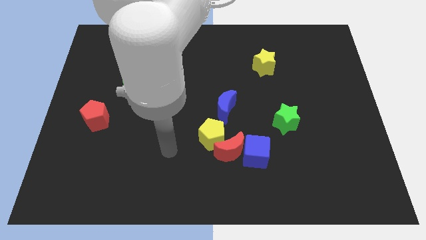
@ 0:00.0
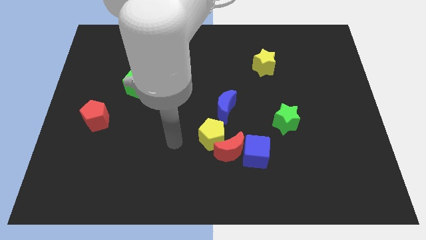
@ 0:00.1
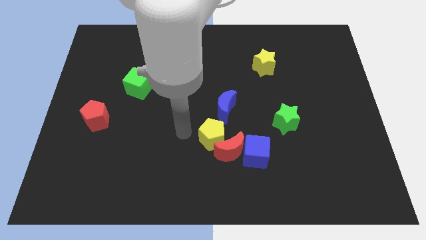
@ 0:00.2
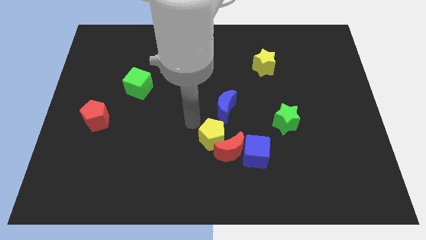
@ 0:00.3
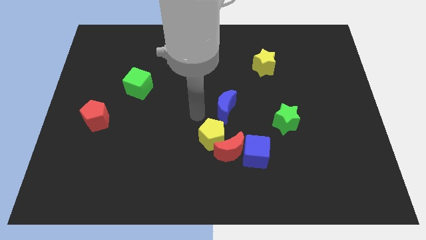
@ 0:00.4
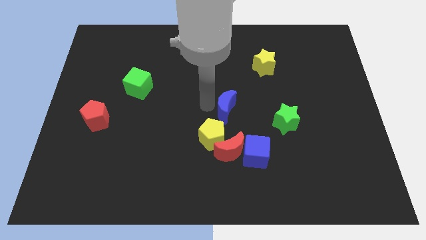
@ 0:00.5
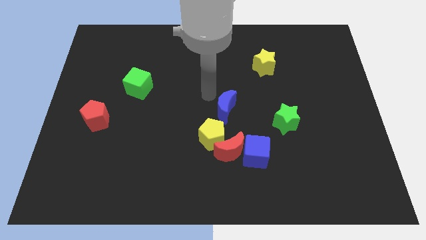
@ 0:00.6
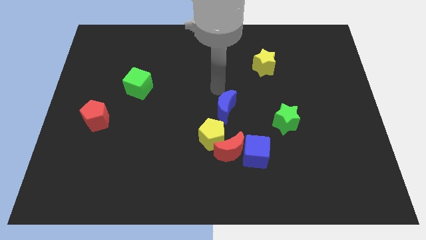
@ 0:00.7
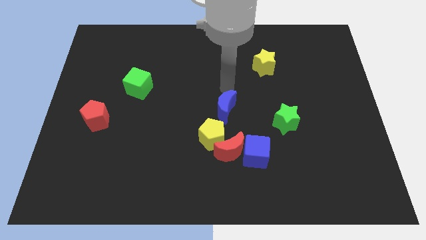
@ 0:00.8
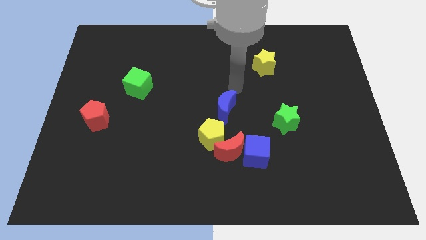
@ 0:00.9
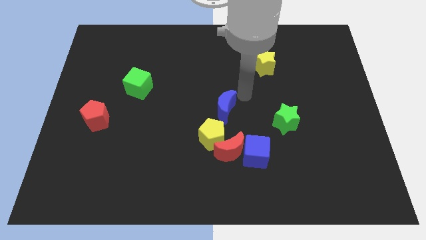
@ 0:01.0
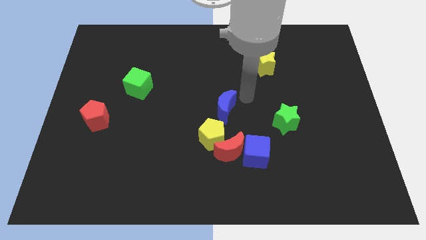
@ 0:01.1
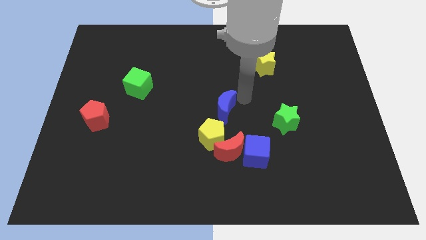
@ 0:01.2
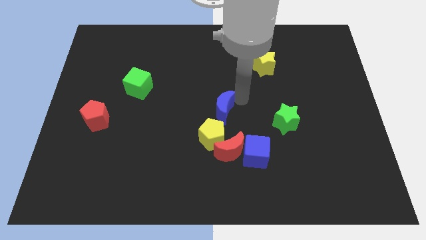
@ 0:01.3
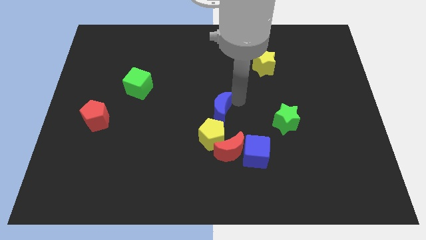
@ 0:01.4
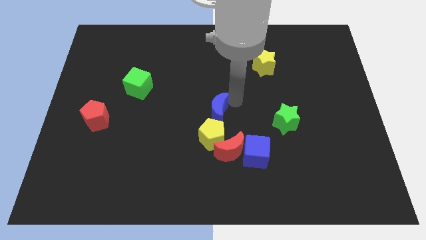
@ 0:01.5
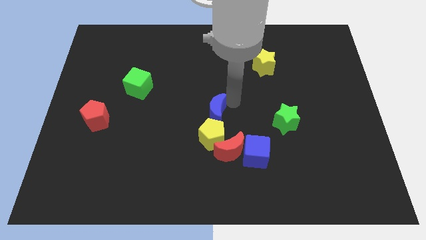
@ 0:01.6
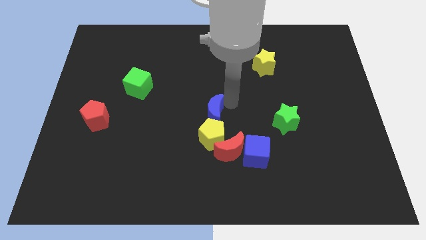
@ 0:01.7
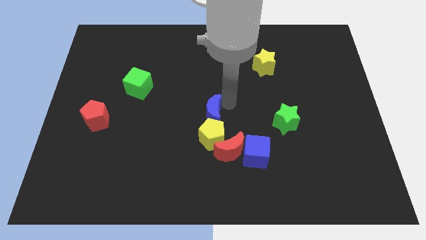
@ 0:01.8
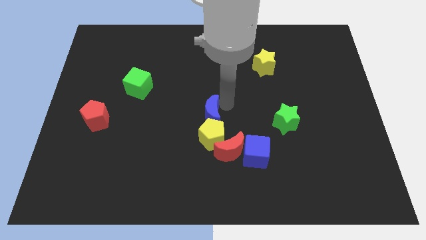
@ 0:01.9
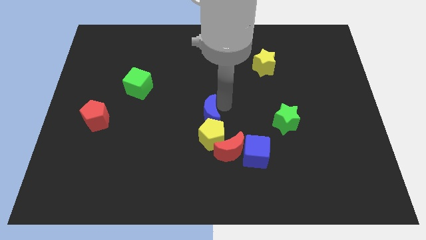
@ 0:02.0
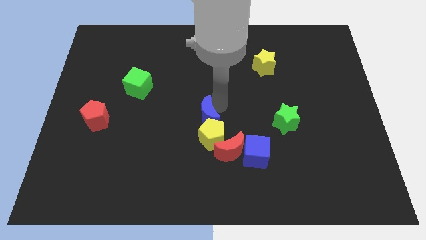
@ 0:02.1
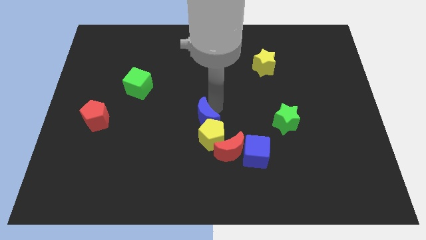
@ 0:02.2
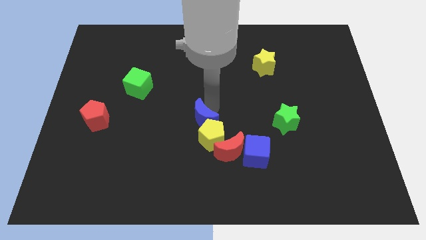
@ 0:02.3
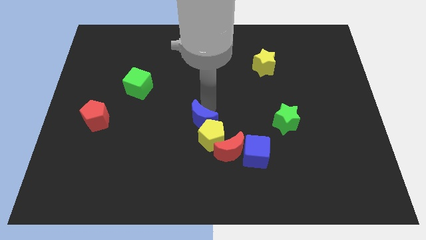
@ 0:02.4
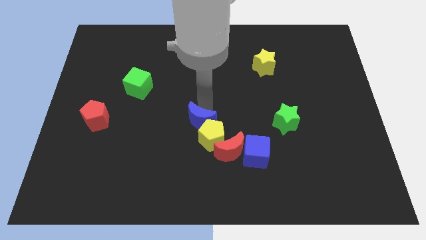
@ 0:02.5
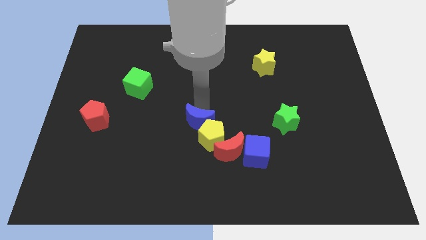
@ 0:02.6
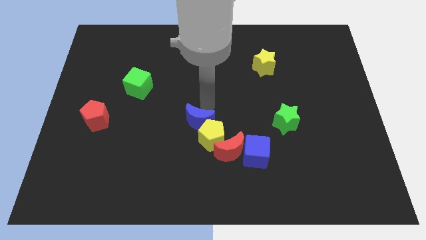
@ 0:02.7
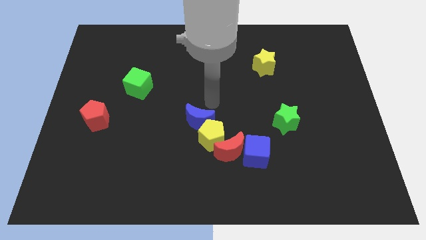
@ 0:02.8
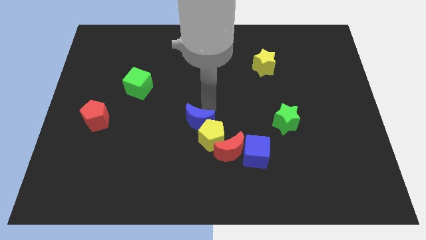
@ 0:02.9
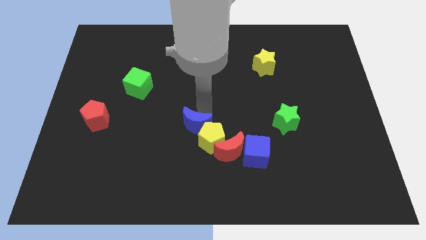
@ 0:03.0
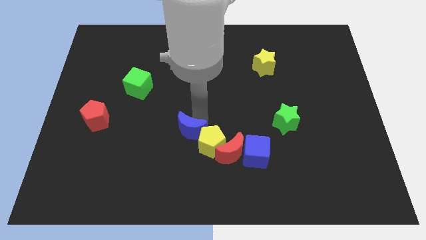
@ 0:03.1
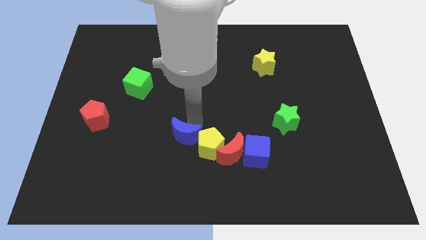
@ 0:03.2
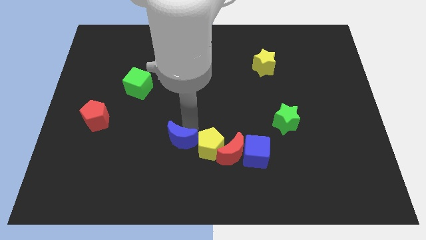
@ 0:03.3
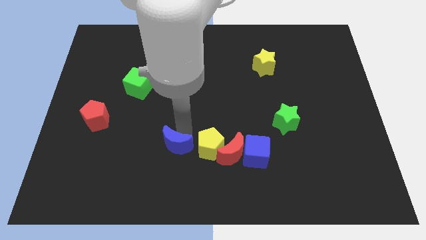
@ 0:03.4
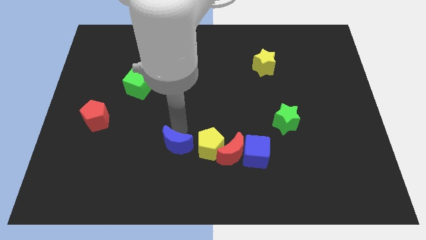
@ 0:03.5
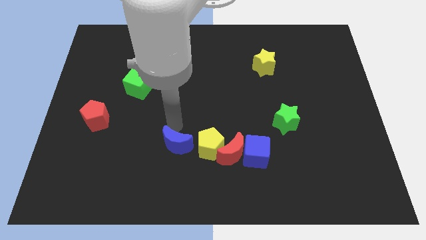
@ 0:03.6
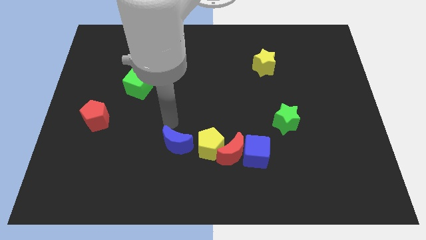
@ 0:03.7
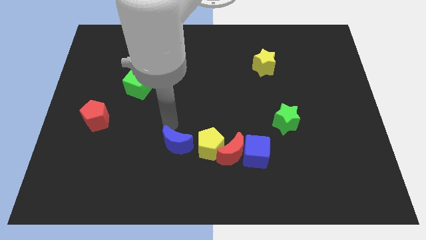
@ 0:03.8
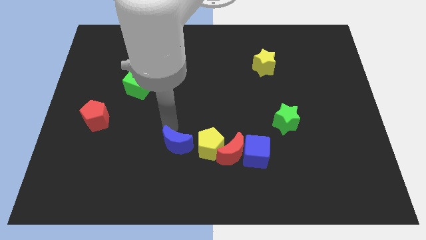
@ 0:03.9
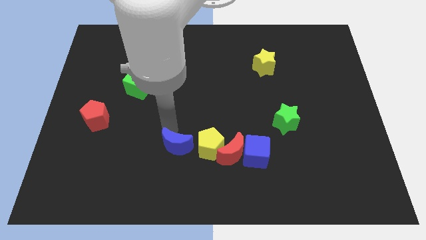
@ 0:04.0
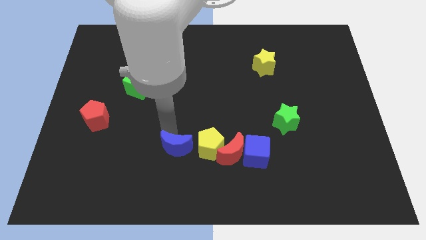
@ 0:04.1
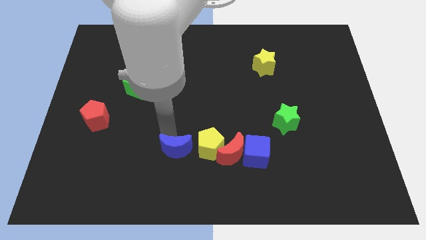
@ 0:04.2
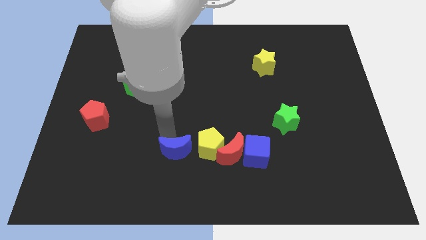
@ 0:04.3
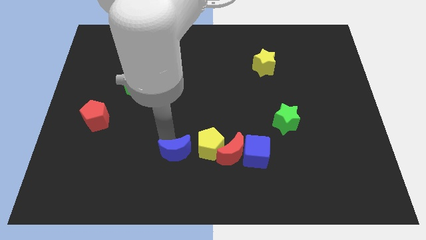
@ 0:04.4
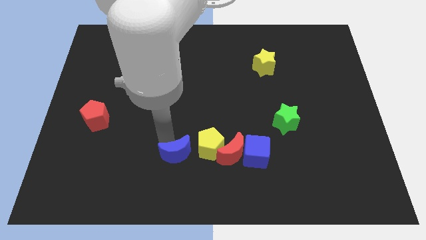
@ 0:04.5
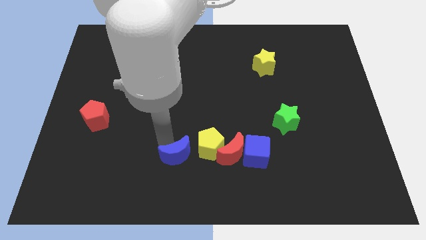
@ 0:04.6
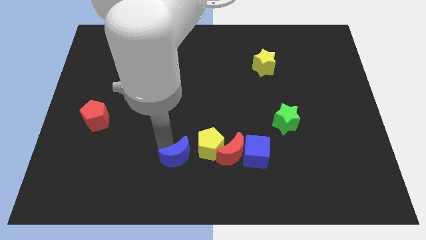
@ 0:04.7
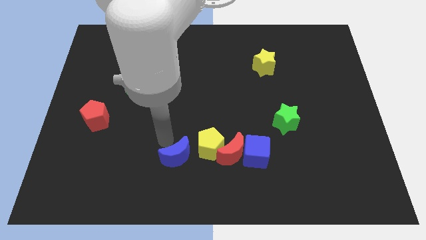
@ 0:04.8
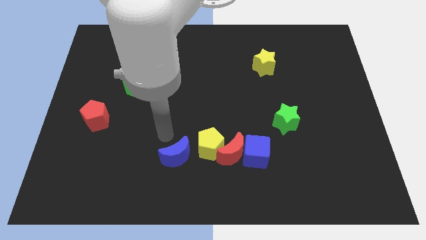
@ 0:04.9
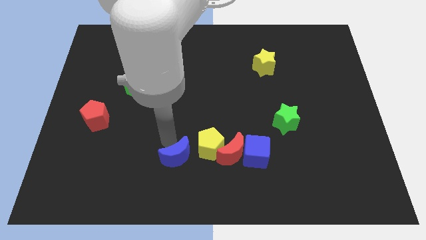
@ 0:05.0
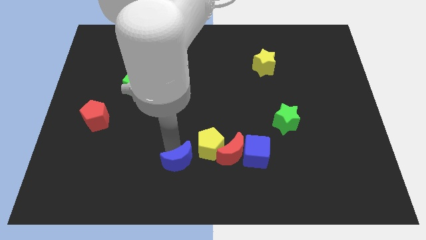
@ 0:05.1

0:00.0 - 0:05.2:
push the blue moon to the bottom

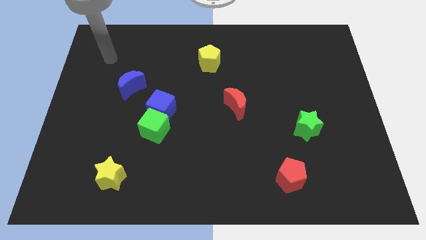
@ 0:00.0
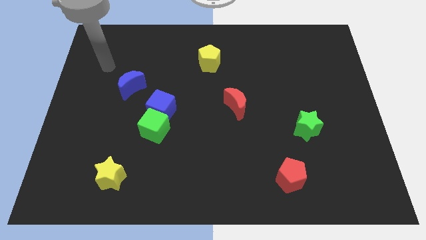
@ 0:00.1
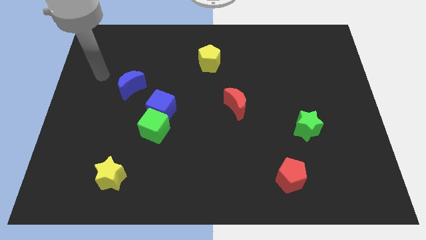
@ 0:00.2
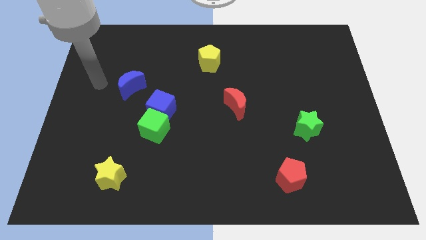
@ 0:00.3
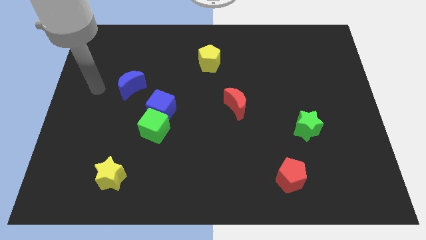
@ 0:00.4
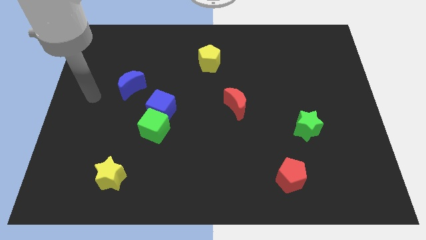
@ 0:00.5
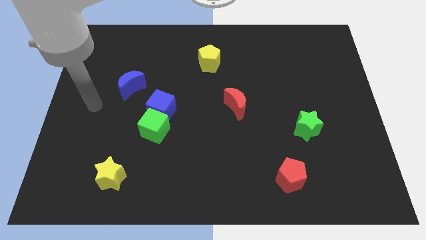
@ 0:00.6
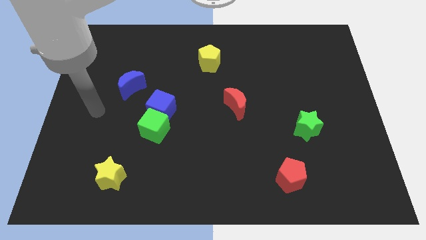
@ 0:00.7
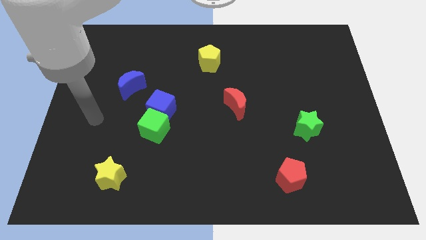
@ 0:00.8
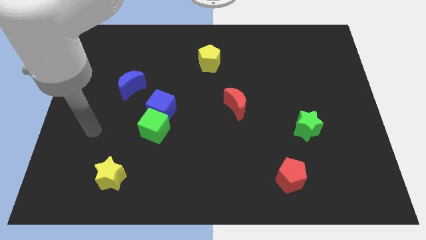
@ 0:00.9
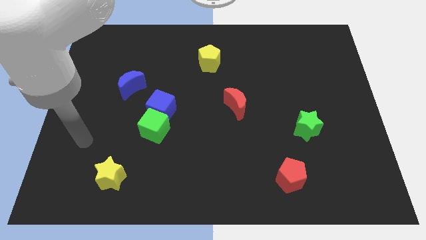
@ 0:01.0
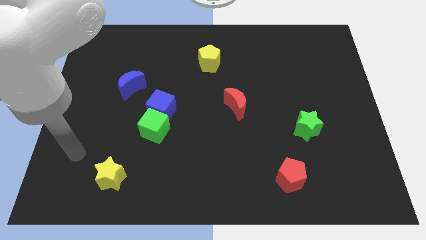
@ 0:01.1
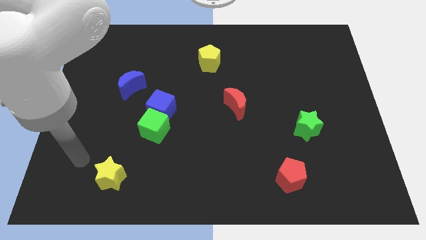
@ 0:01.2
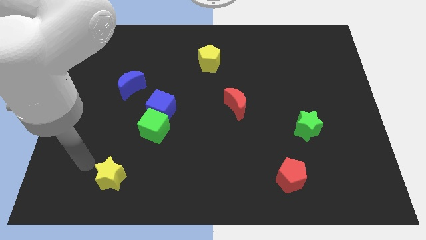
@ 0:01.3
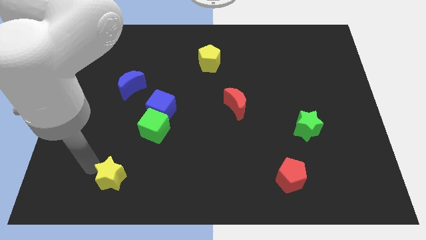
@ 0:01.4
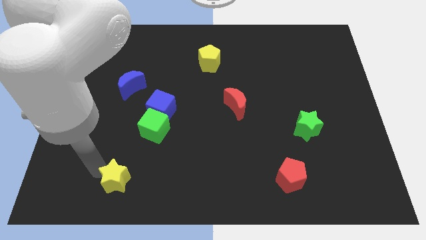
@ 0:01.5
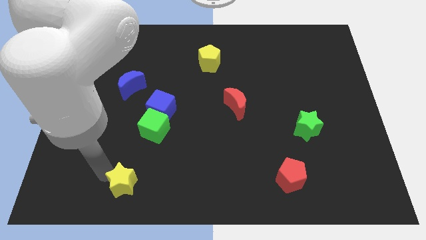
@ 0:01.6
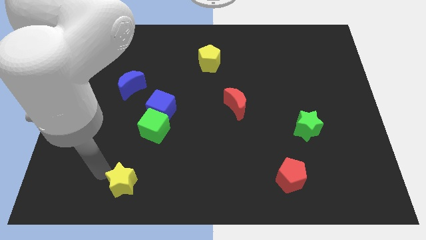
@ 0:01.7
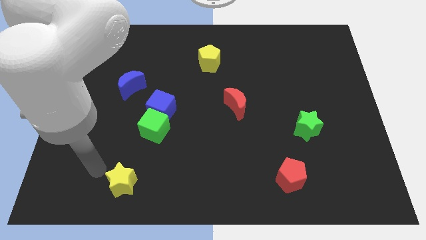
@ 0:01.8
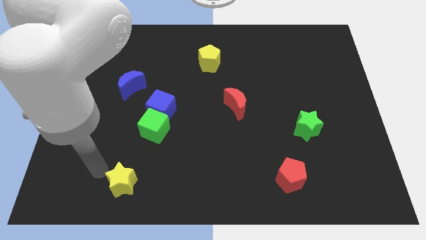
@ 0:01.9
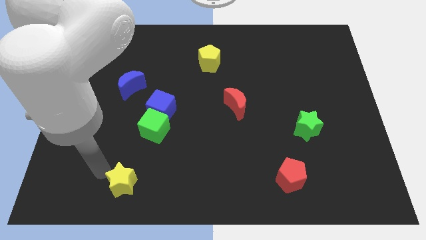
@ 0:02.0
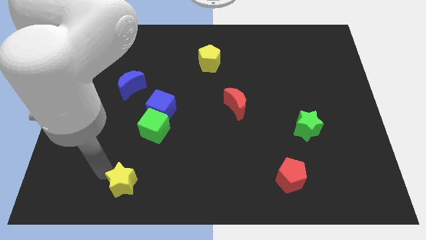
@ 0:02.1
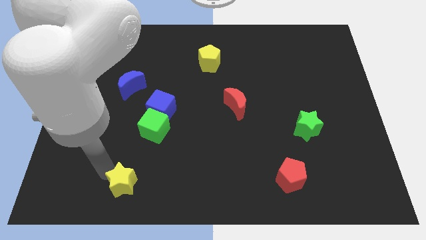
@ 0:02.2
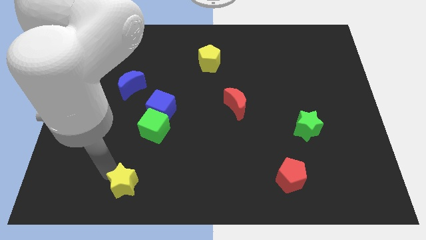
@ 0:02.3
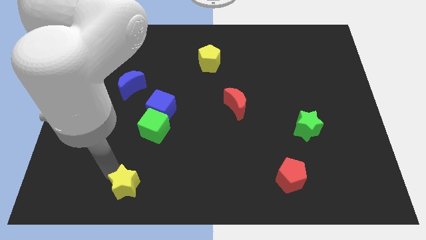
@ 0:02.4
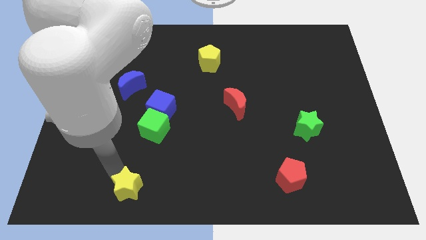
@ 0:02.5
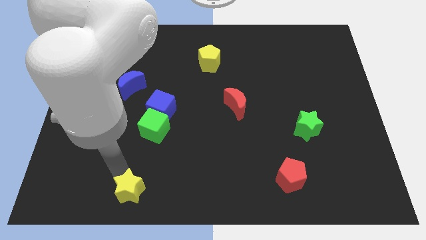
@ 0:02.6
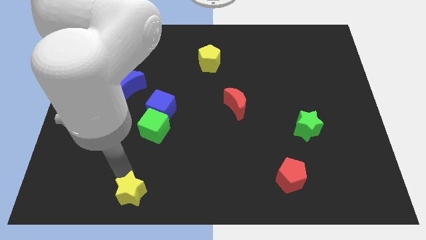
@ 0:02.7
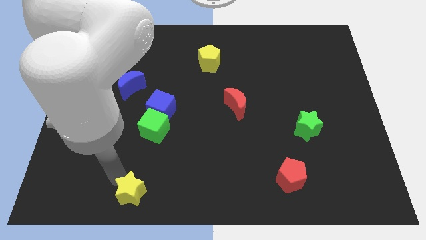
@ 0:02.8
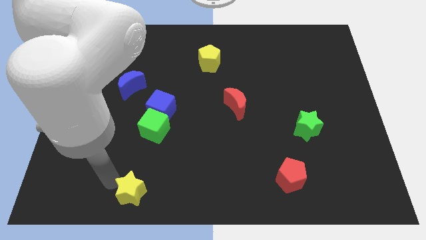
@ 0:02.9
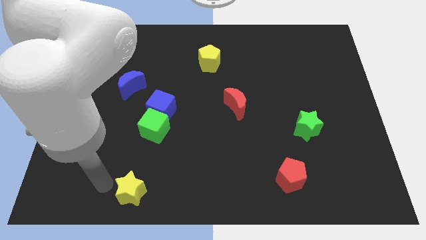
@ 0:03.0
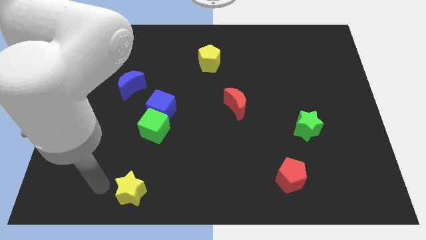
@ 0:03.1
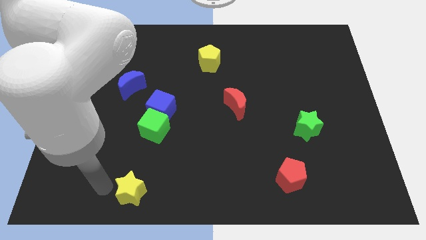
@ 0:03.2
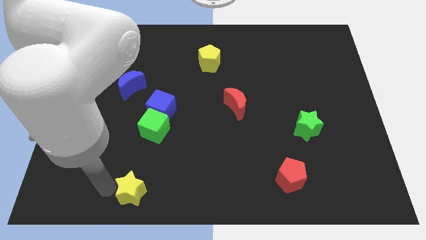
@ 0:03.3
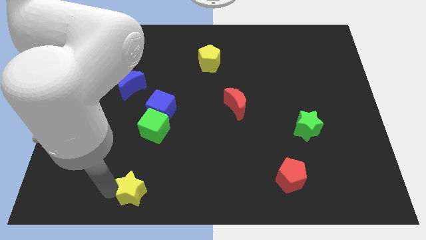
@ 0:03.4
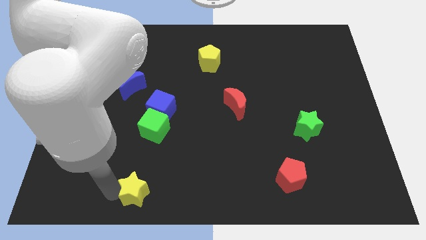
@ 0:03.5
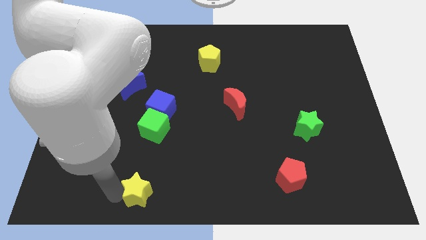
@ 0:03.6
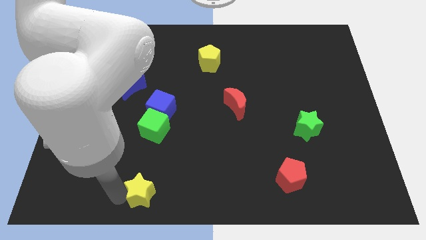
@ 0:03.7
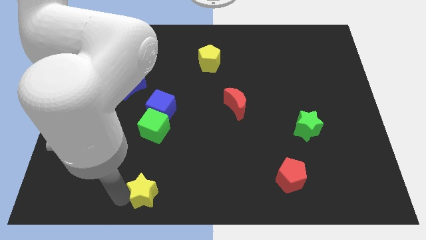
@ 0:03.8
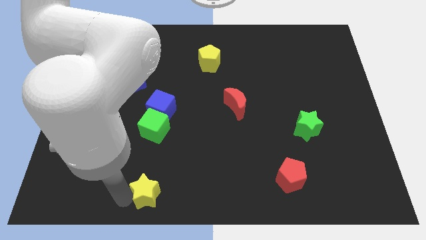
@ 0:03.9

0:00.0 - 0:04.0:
push the yellow star to the bottom
